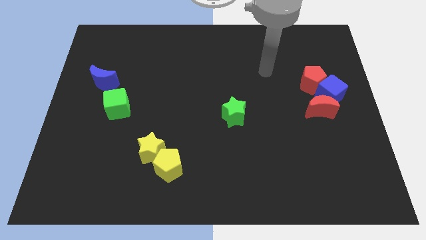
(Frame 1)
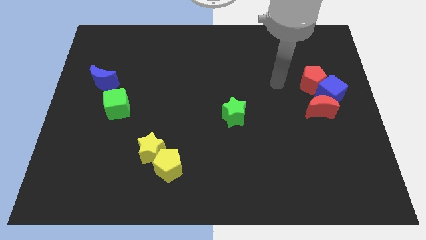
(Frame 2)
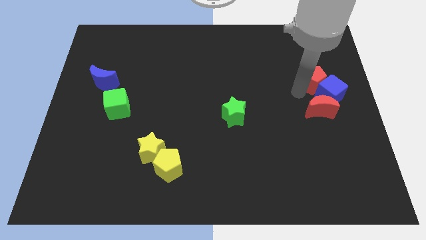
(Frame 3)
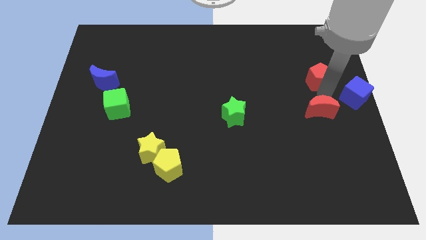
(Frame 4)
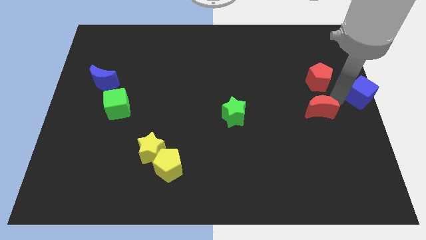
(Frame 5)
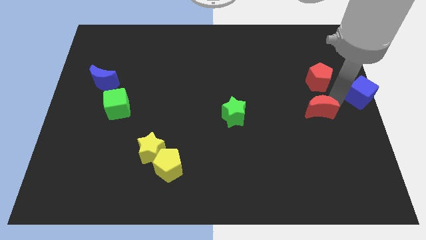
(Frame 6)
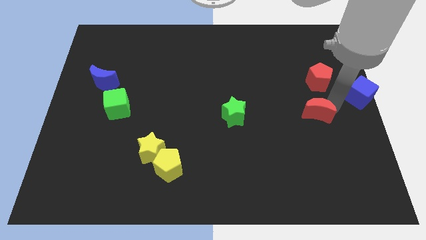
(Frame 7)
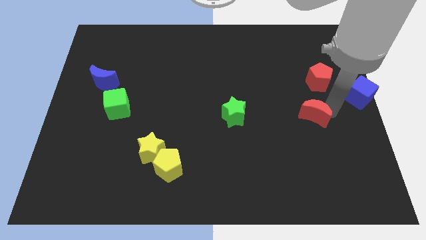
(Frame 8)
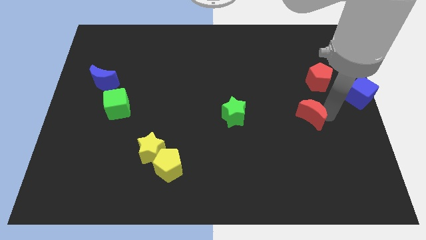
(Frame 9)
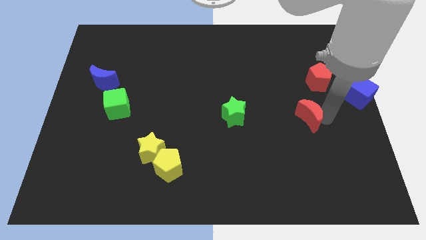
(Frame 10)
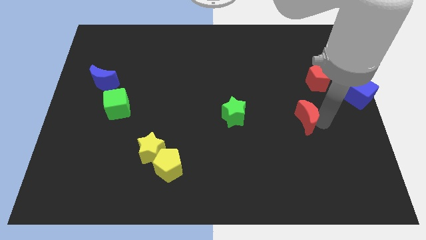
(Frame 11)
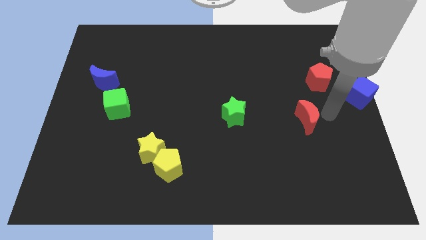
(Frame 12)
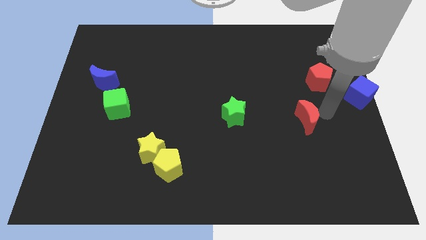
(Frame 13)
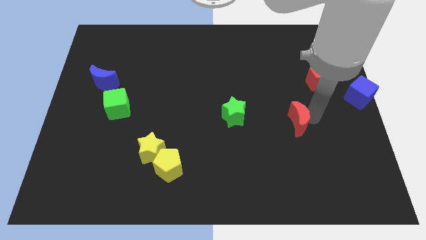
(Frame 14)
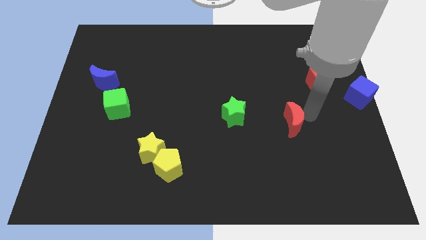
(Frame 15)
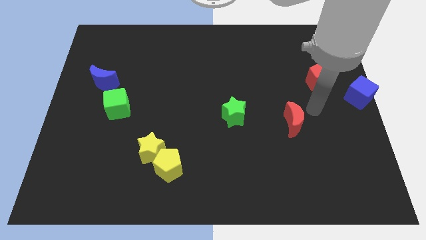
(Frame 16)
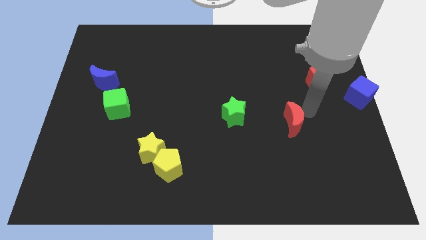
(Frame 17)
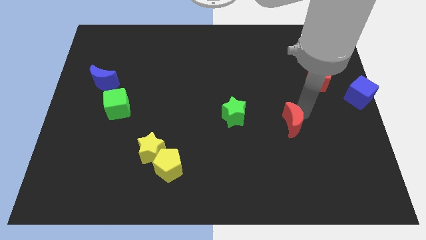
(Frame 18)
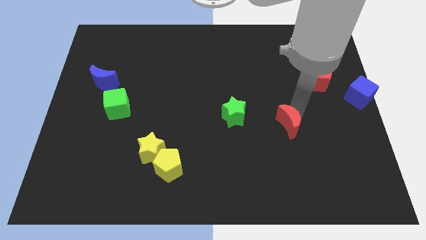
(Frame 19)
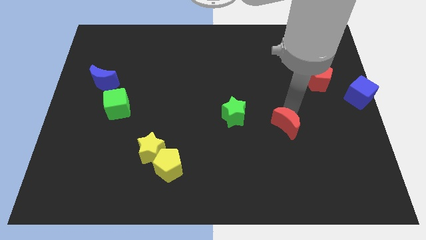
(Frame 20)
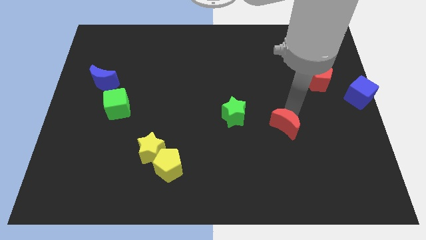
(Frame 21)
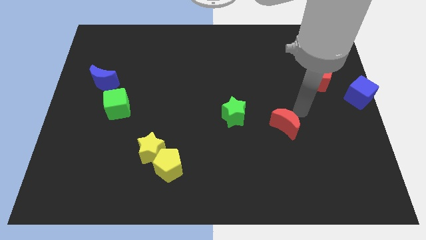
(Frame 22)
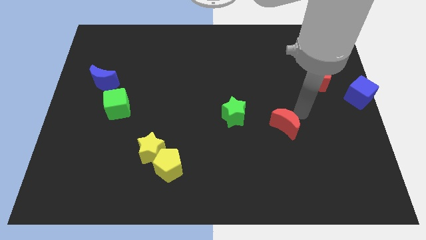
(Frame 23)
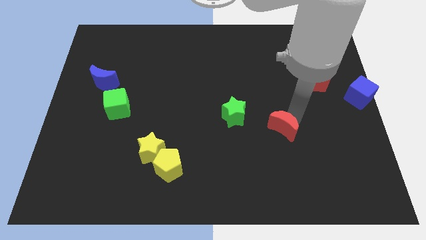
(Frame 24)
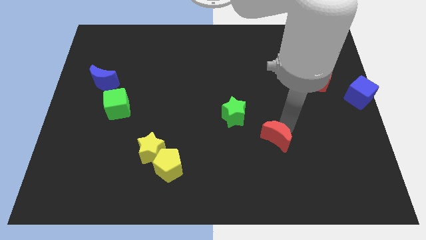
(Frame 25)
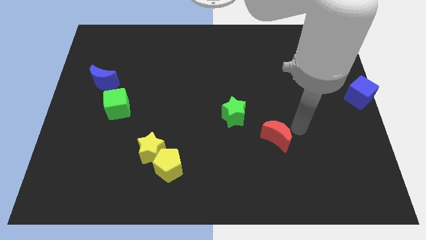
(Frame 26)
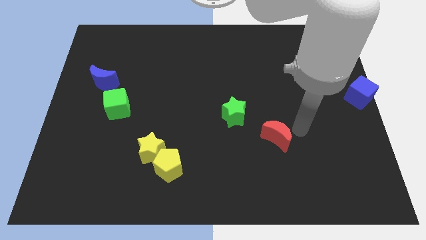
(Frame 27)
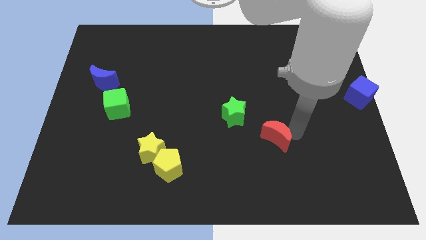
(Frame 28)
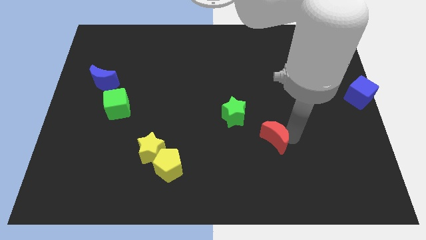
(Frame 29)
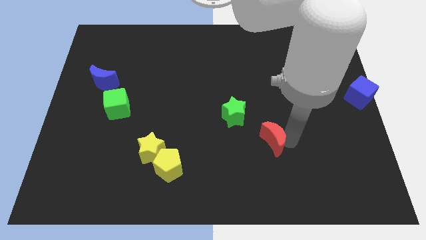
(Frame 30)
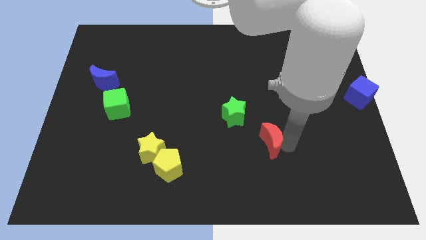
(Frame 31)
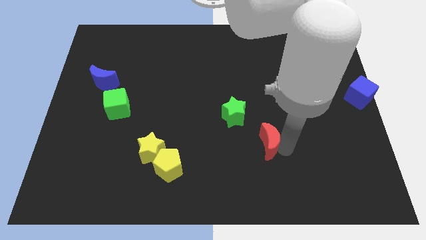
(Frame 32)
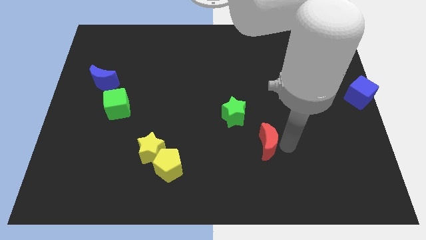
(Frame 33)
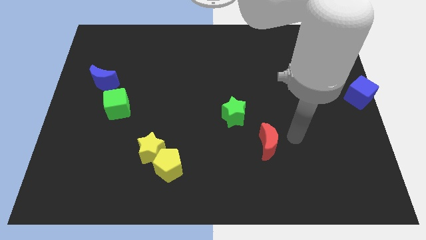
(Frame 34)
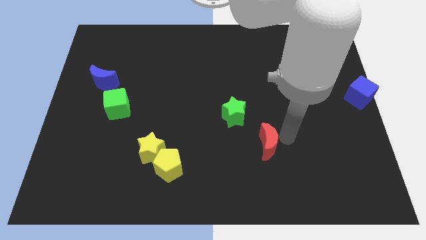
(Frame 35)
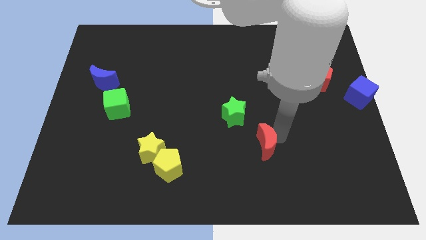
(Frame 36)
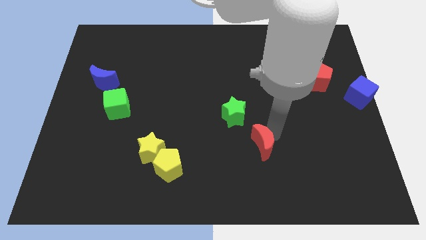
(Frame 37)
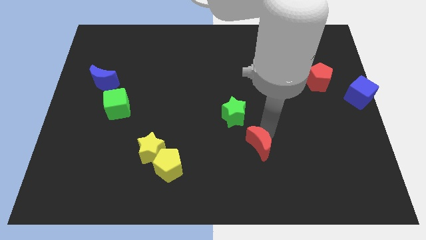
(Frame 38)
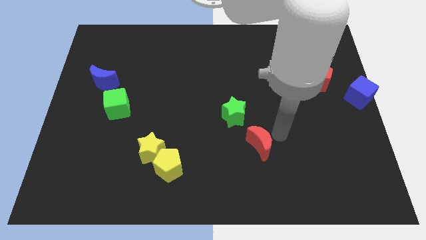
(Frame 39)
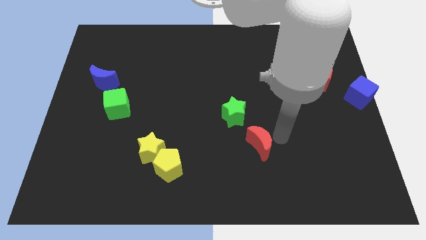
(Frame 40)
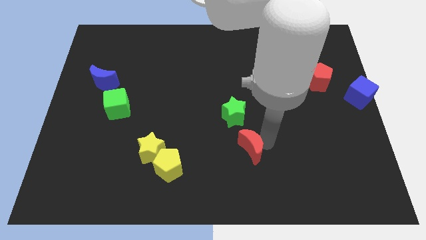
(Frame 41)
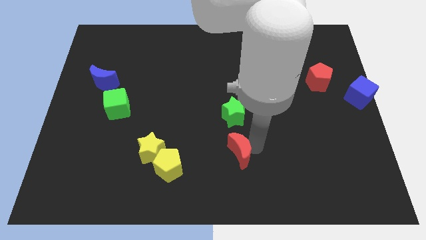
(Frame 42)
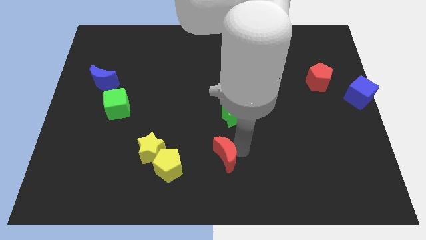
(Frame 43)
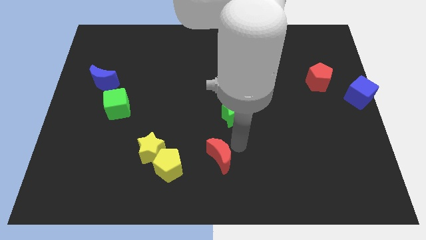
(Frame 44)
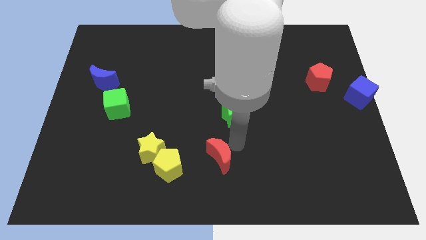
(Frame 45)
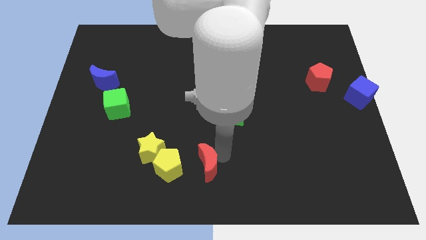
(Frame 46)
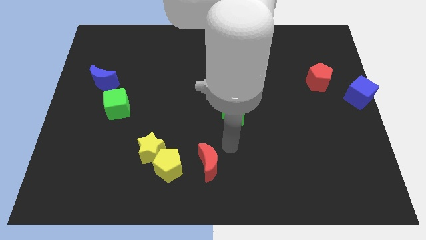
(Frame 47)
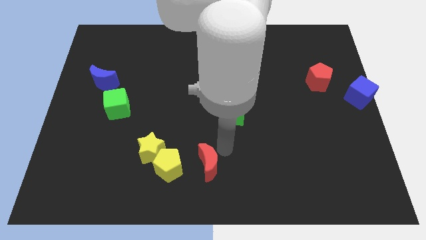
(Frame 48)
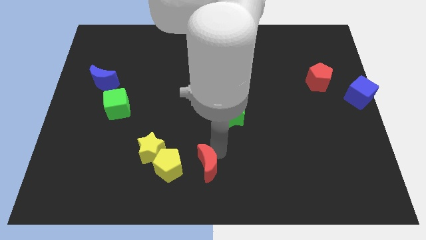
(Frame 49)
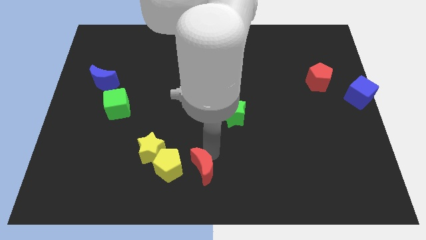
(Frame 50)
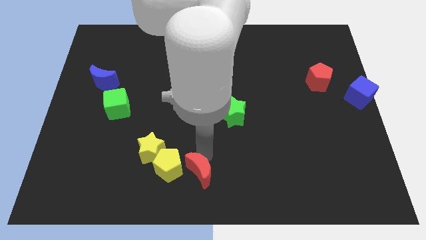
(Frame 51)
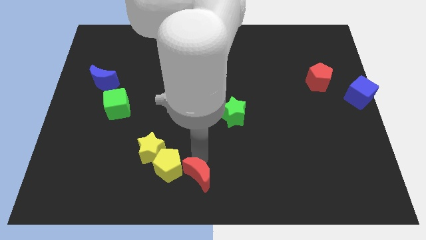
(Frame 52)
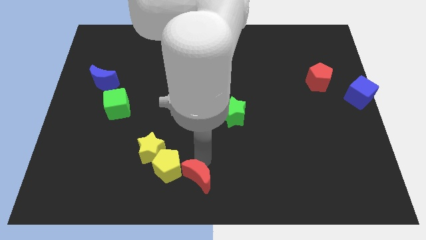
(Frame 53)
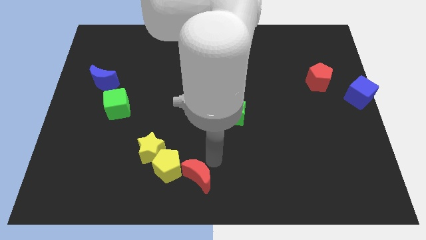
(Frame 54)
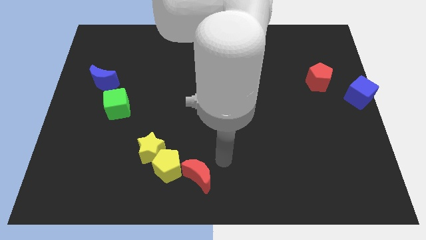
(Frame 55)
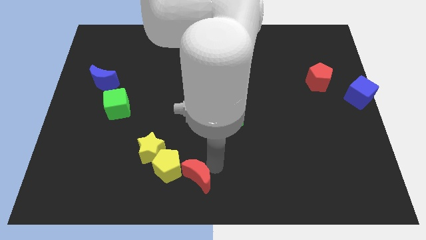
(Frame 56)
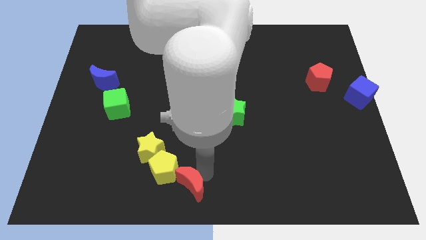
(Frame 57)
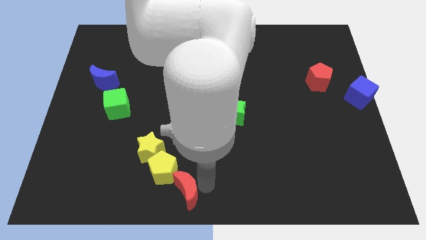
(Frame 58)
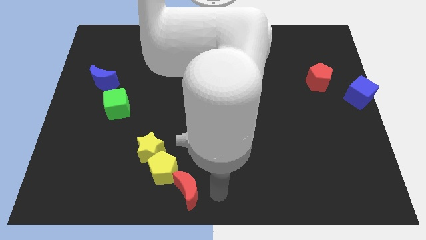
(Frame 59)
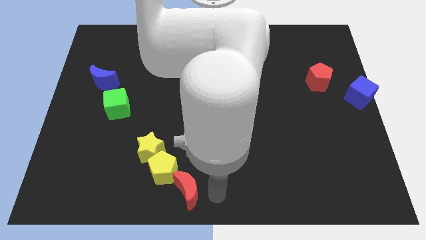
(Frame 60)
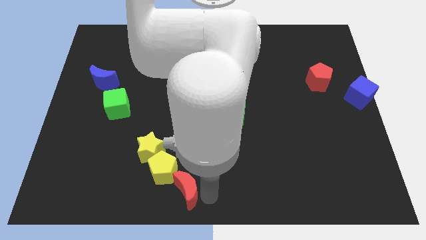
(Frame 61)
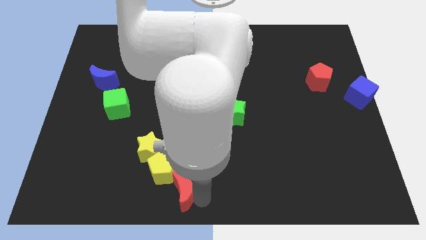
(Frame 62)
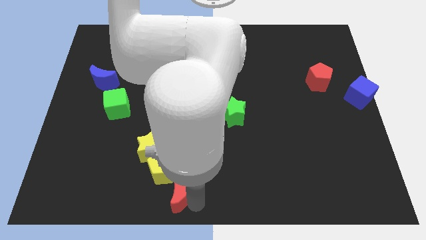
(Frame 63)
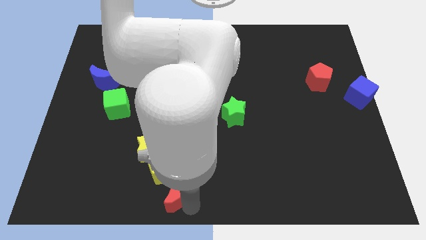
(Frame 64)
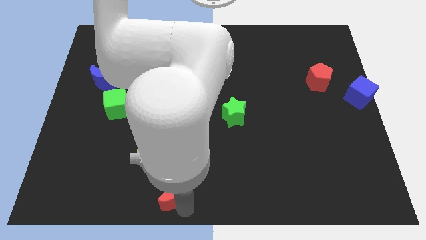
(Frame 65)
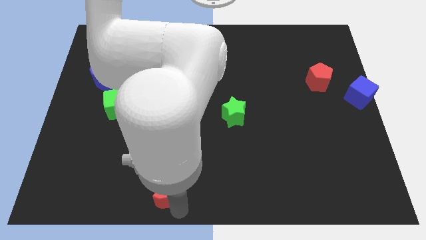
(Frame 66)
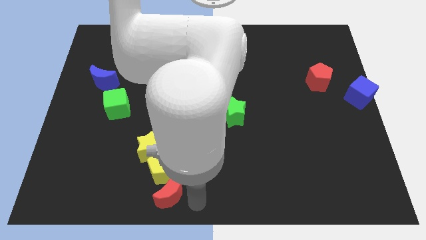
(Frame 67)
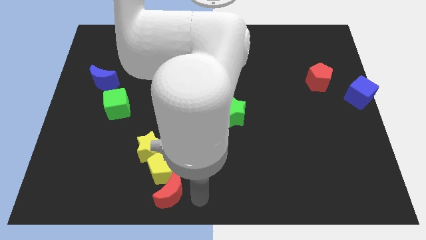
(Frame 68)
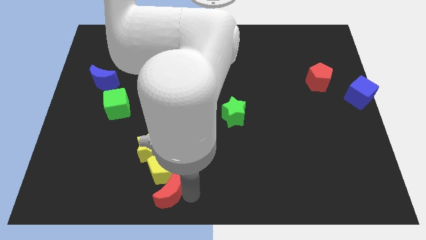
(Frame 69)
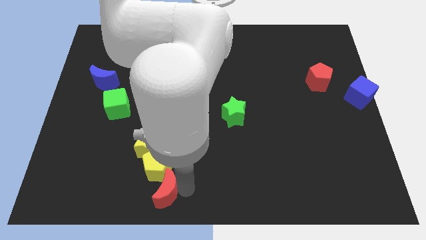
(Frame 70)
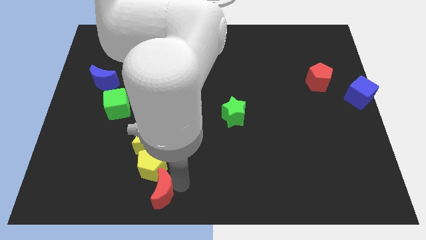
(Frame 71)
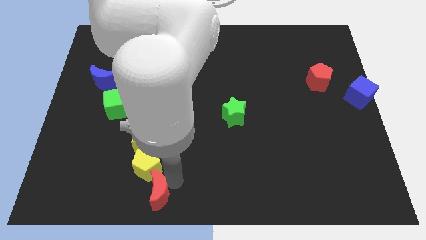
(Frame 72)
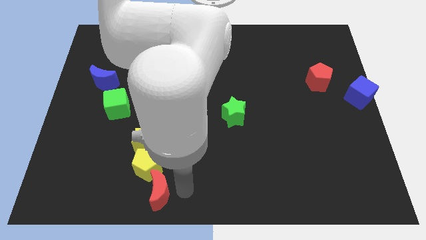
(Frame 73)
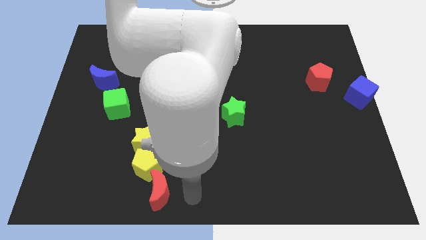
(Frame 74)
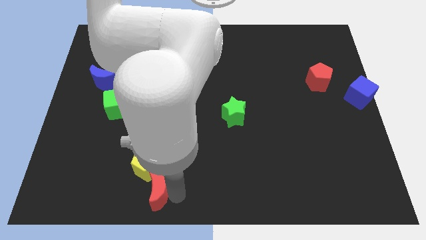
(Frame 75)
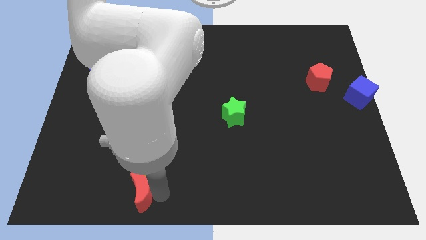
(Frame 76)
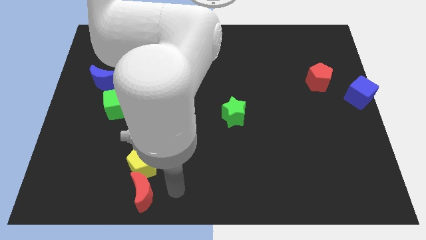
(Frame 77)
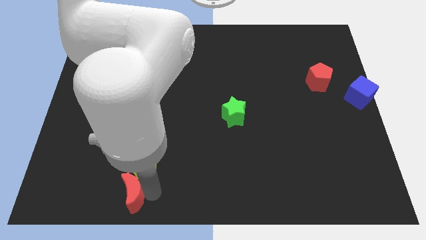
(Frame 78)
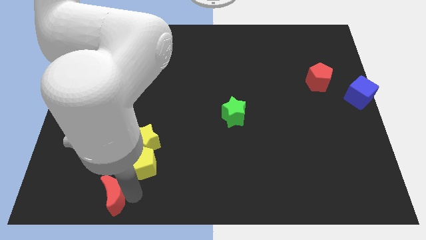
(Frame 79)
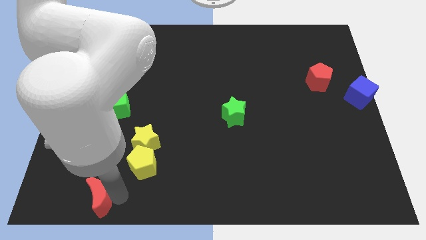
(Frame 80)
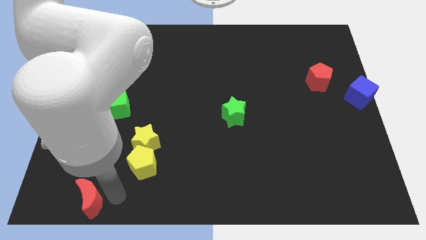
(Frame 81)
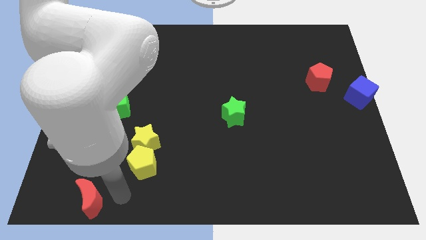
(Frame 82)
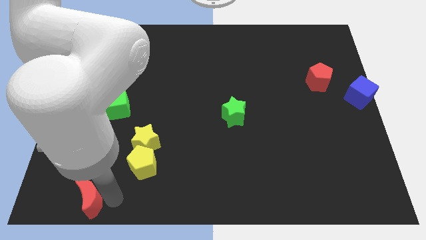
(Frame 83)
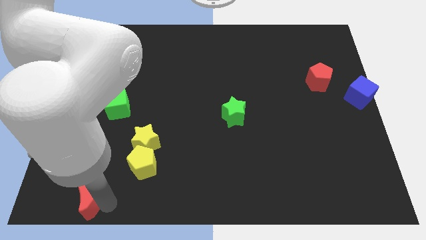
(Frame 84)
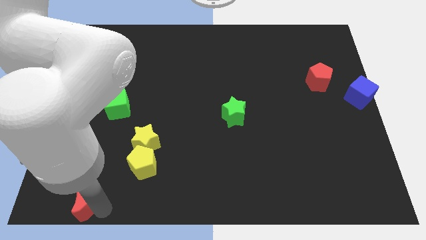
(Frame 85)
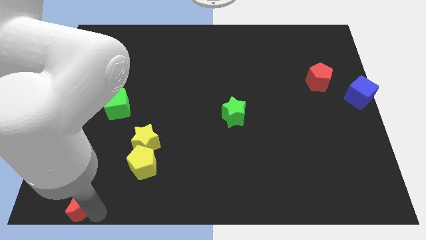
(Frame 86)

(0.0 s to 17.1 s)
push the red moon to the bottom left
